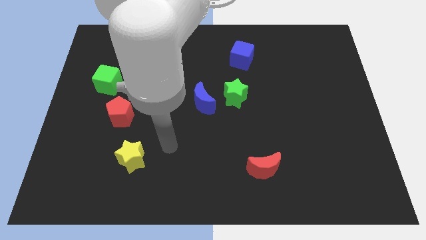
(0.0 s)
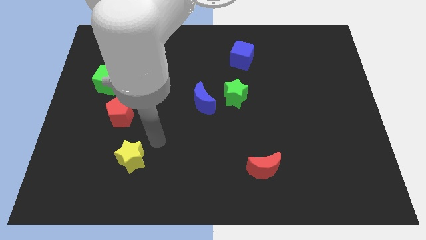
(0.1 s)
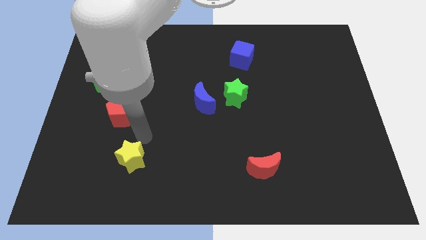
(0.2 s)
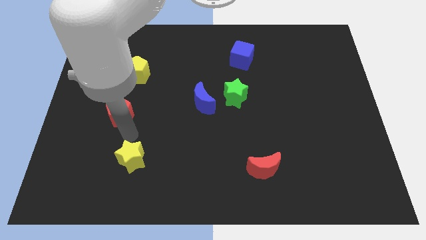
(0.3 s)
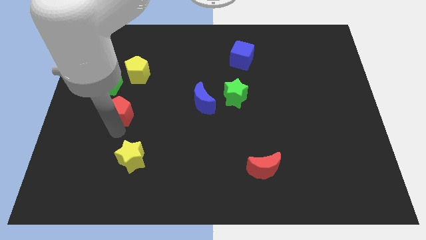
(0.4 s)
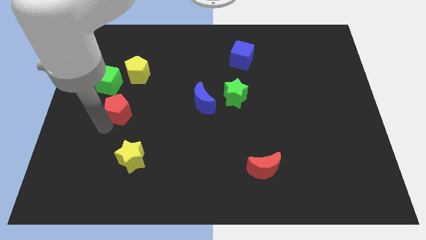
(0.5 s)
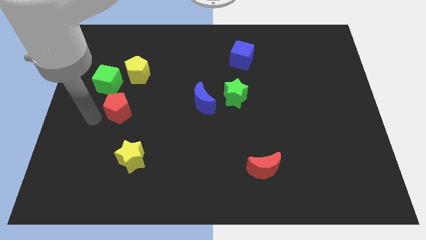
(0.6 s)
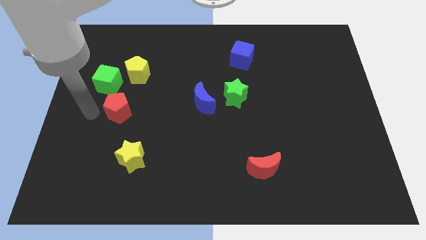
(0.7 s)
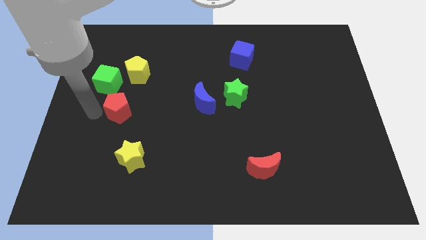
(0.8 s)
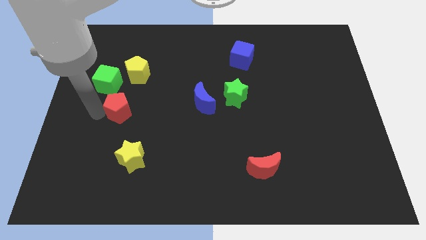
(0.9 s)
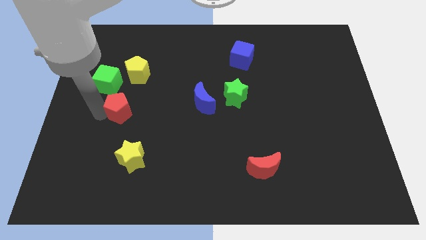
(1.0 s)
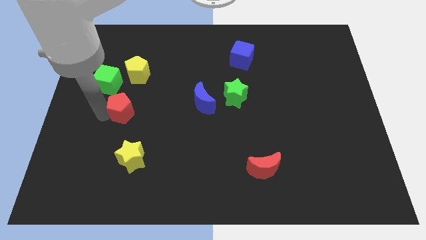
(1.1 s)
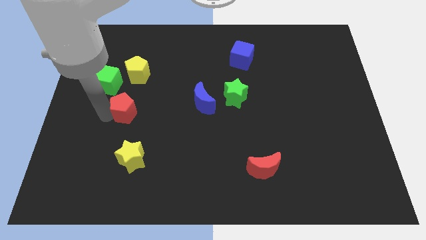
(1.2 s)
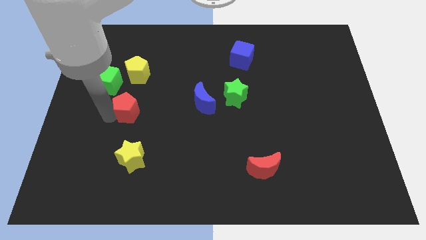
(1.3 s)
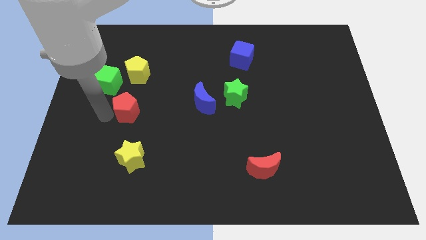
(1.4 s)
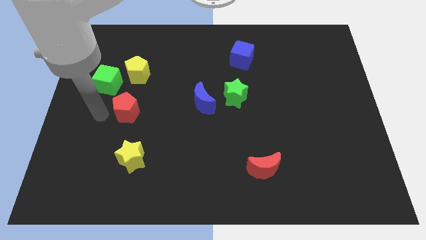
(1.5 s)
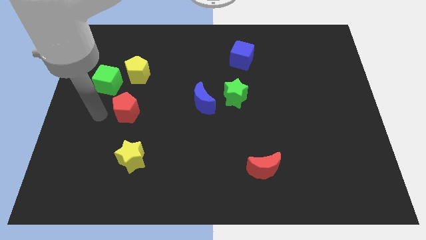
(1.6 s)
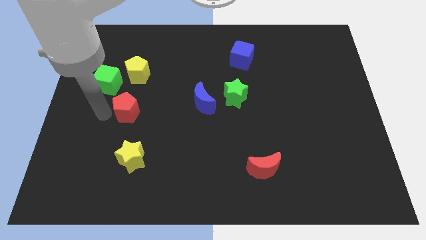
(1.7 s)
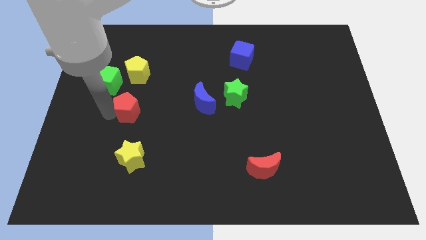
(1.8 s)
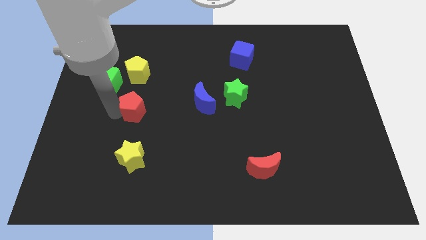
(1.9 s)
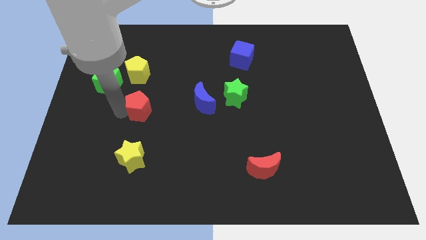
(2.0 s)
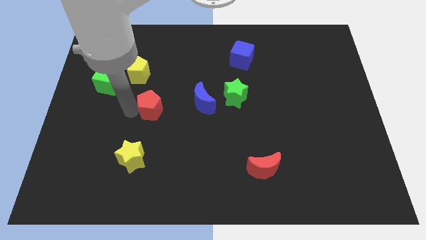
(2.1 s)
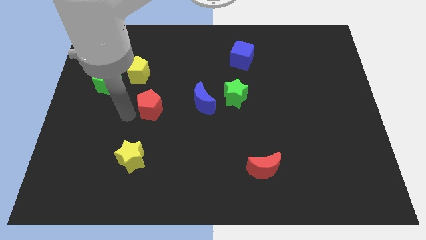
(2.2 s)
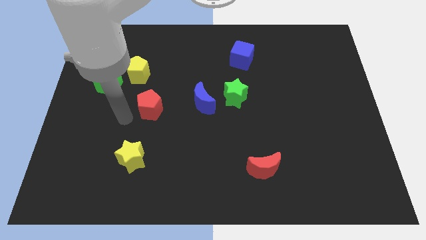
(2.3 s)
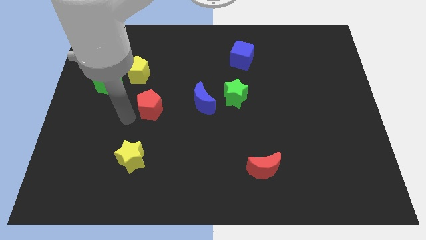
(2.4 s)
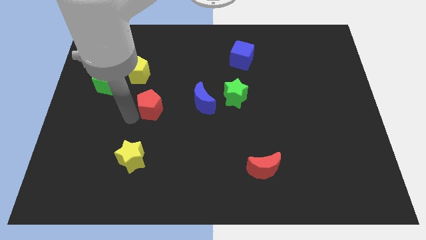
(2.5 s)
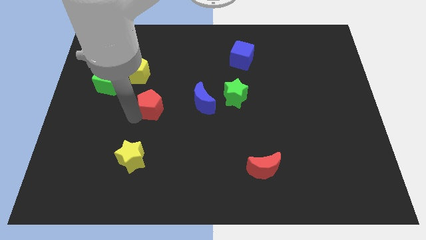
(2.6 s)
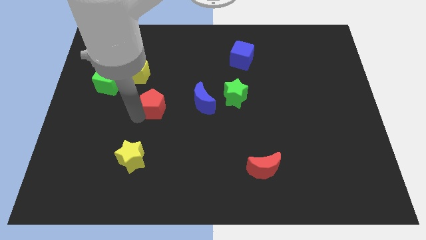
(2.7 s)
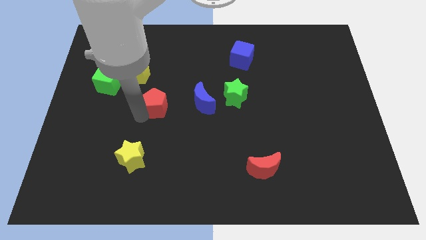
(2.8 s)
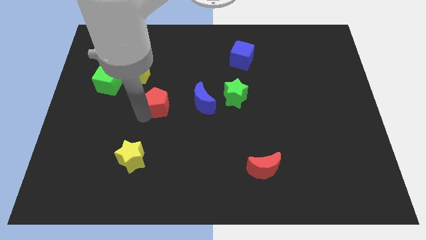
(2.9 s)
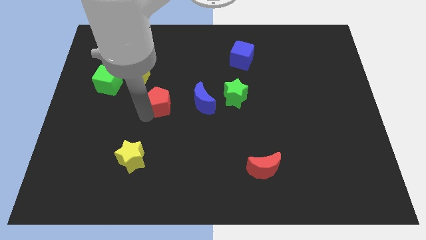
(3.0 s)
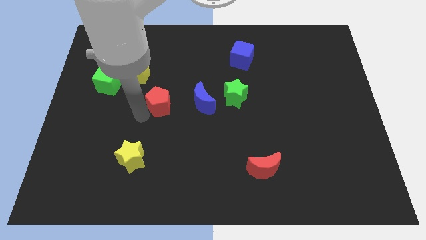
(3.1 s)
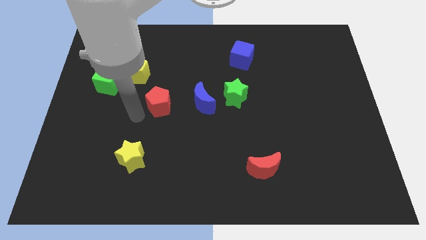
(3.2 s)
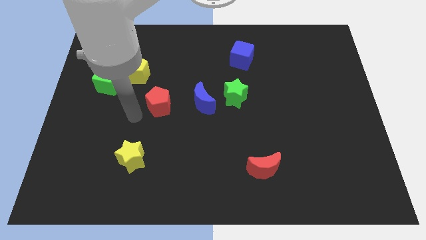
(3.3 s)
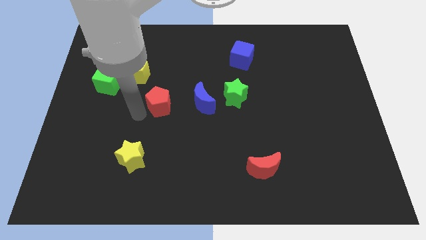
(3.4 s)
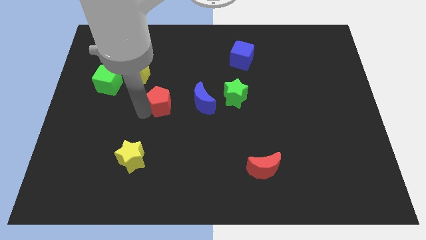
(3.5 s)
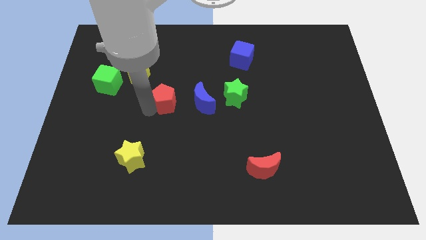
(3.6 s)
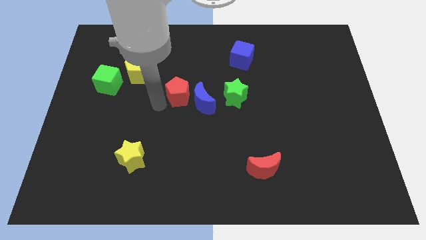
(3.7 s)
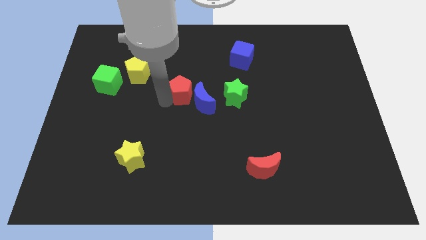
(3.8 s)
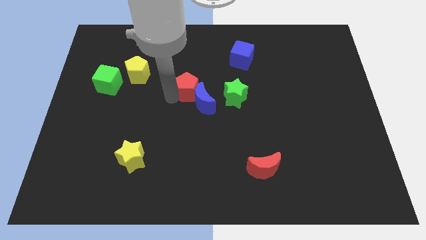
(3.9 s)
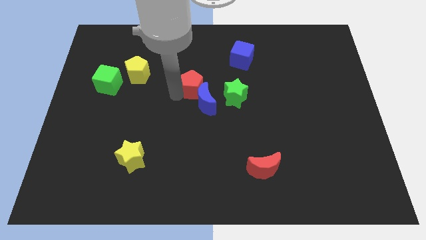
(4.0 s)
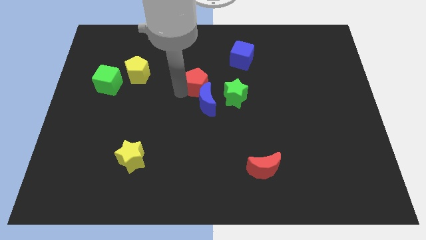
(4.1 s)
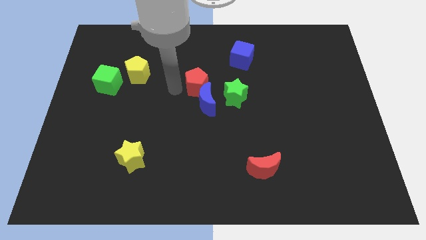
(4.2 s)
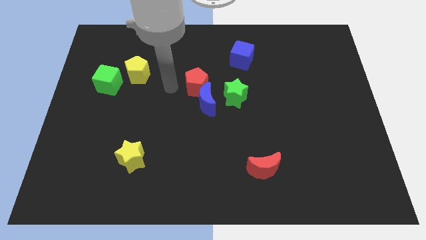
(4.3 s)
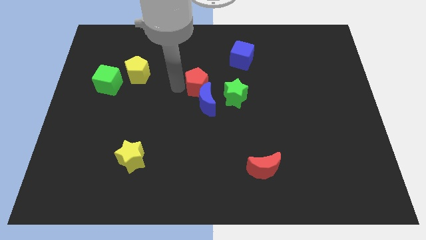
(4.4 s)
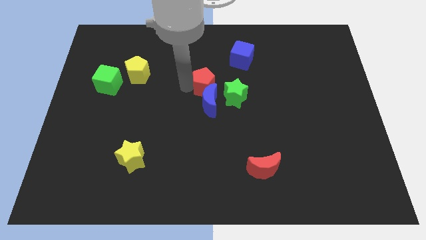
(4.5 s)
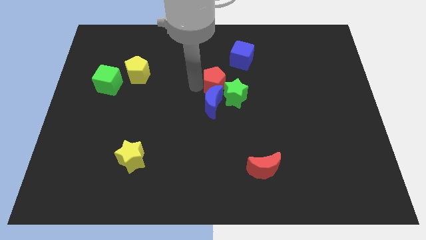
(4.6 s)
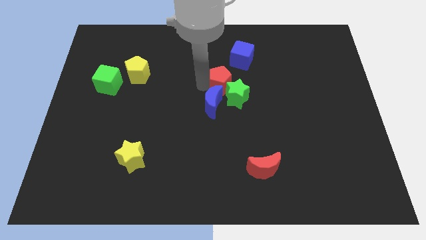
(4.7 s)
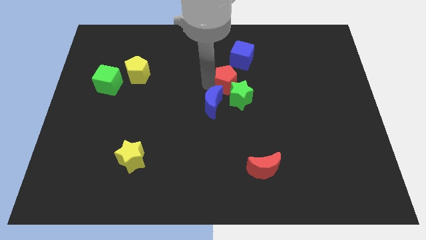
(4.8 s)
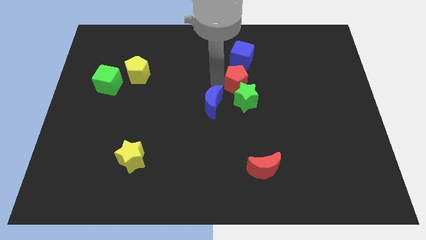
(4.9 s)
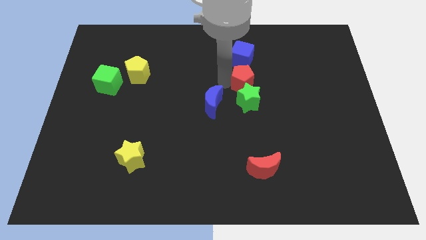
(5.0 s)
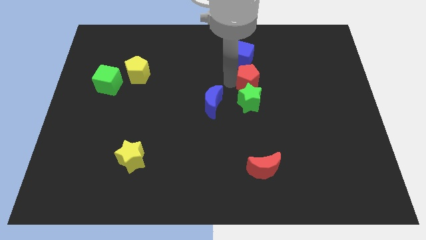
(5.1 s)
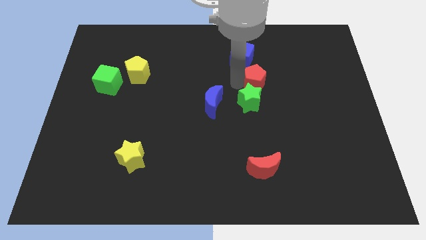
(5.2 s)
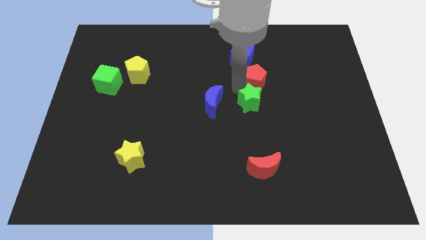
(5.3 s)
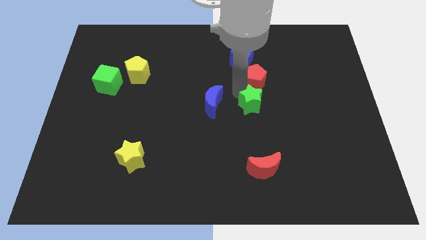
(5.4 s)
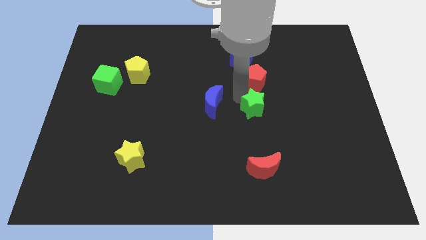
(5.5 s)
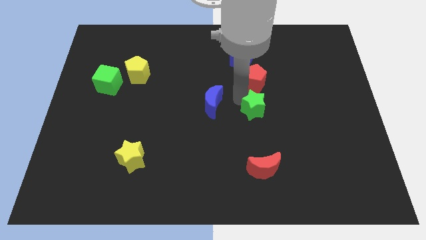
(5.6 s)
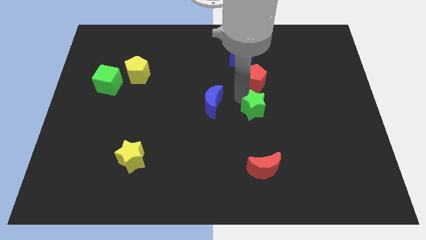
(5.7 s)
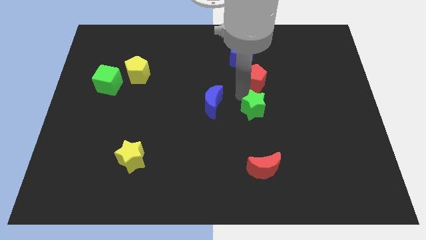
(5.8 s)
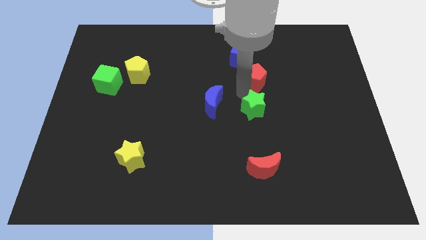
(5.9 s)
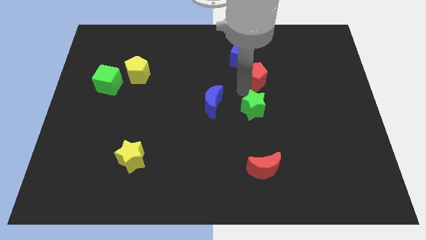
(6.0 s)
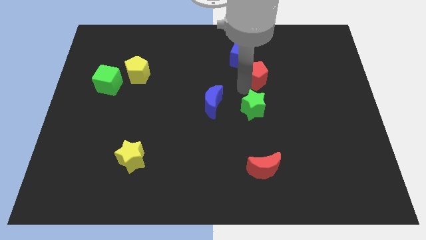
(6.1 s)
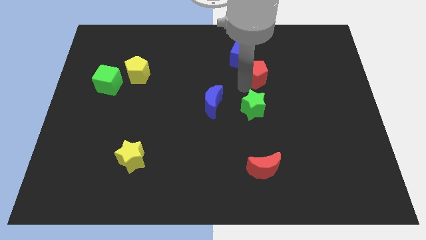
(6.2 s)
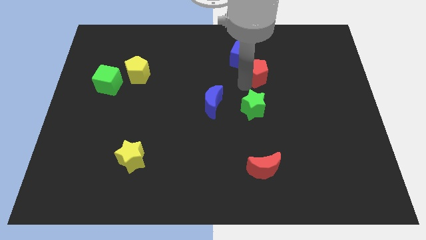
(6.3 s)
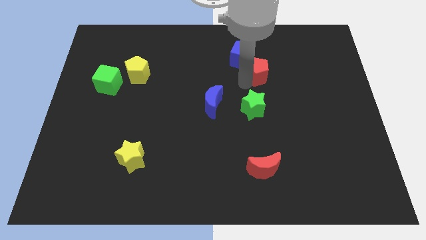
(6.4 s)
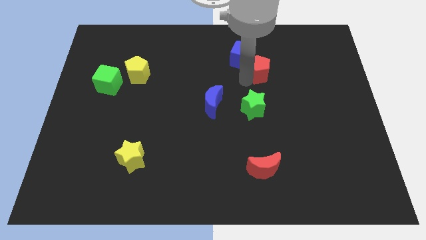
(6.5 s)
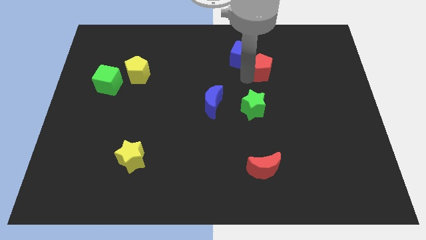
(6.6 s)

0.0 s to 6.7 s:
slide the red pentagon to the right of the blue cube

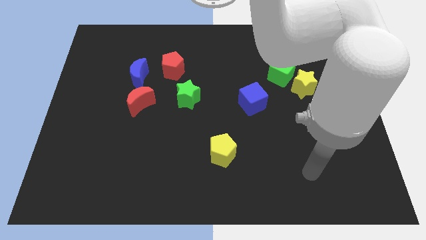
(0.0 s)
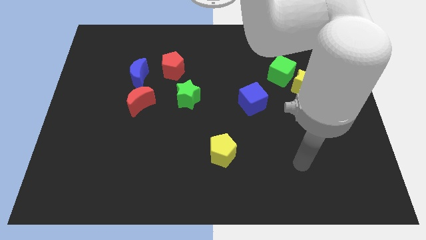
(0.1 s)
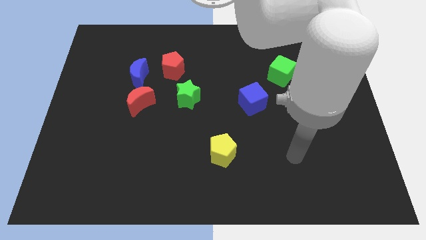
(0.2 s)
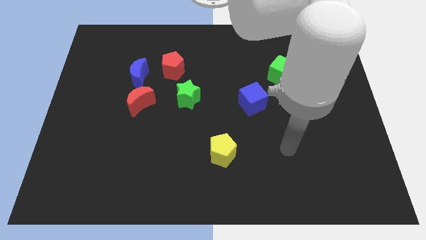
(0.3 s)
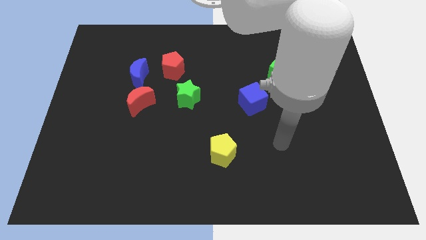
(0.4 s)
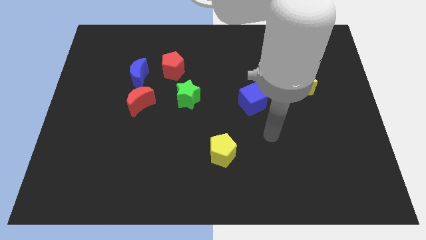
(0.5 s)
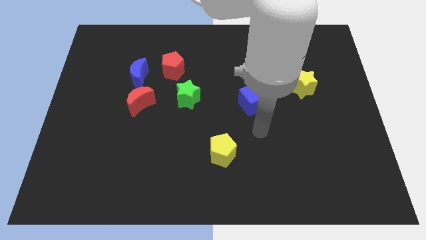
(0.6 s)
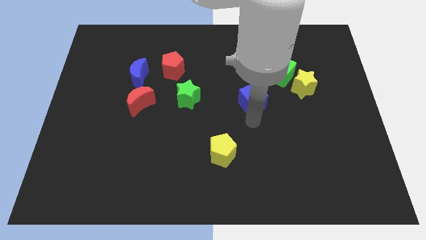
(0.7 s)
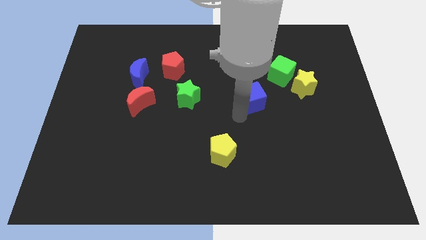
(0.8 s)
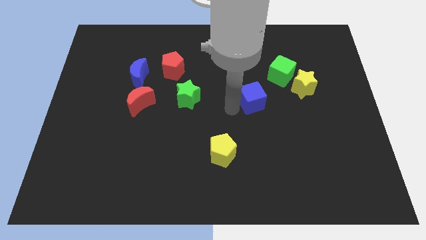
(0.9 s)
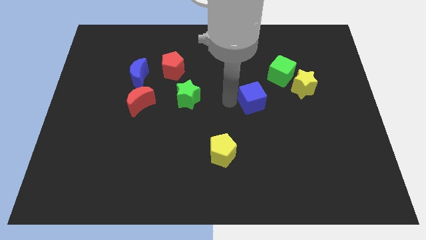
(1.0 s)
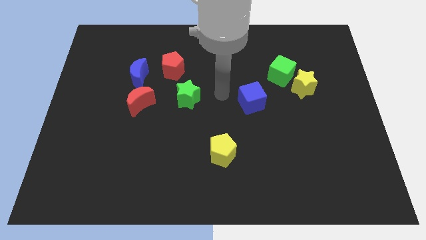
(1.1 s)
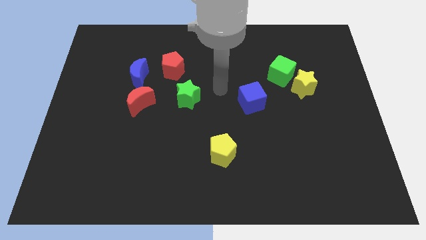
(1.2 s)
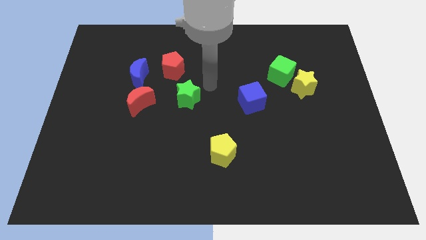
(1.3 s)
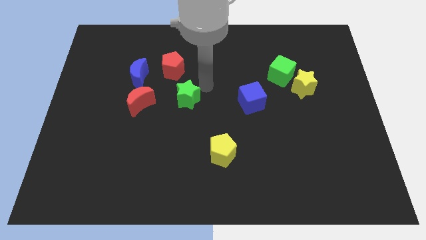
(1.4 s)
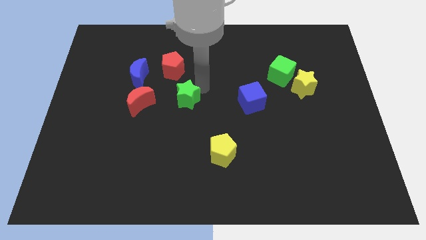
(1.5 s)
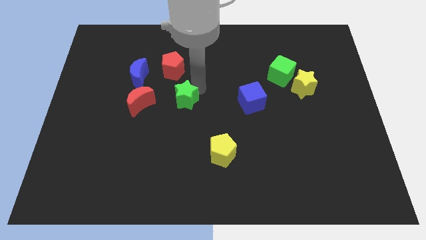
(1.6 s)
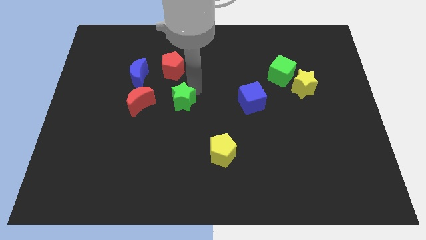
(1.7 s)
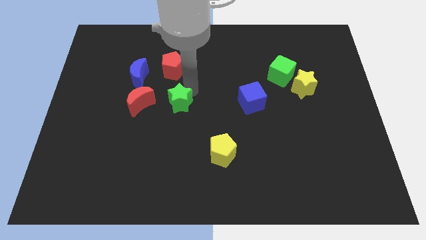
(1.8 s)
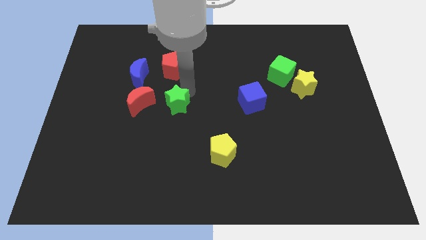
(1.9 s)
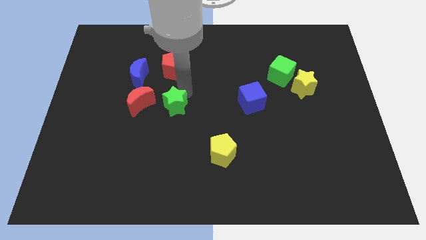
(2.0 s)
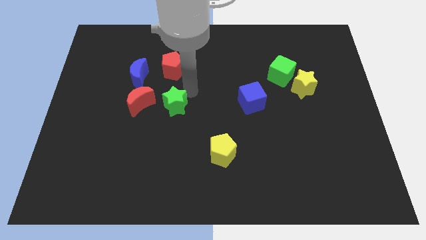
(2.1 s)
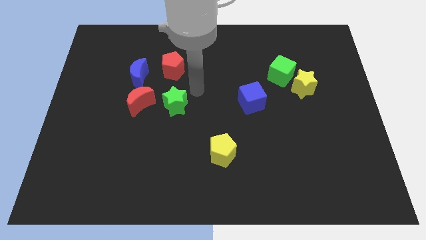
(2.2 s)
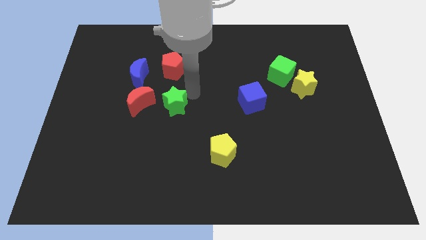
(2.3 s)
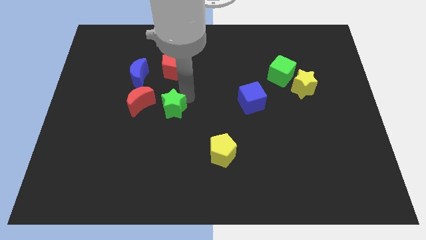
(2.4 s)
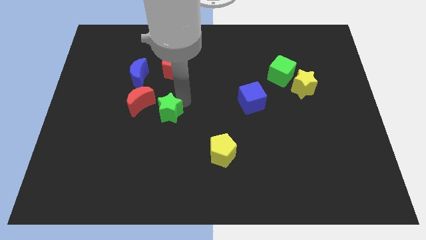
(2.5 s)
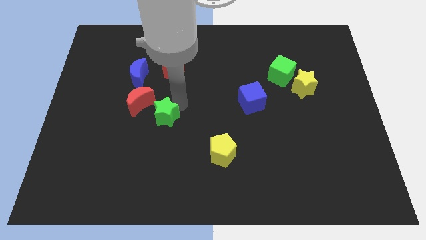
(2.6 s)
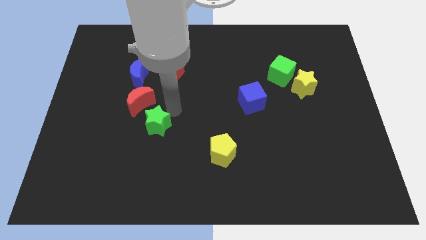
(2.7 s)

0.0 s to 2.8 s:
put the green star to the bottom of the red moon
